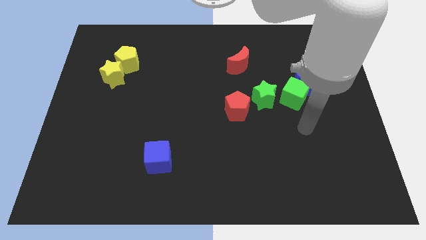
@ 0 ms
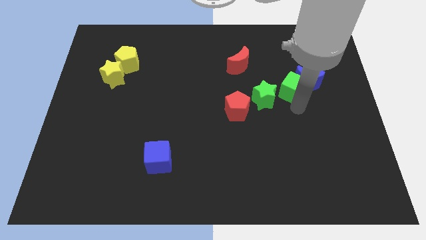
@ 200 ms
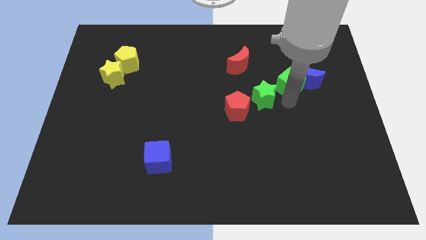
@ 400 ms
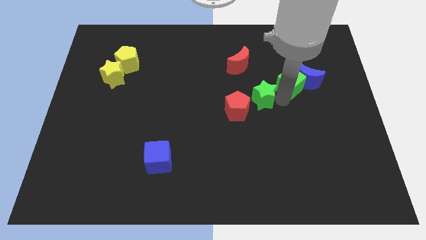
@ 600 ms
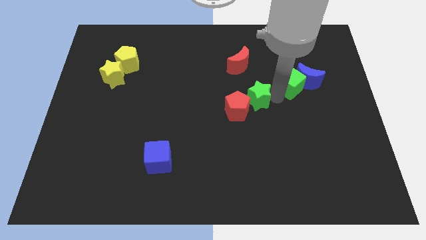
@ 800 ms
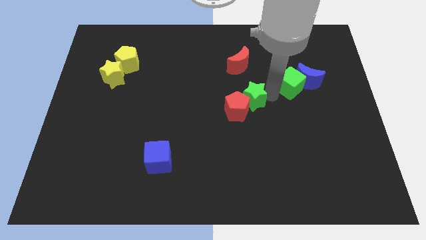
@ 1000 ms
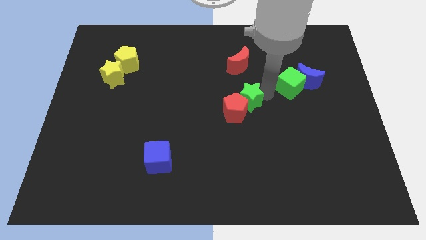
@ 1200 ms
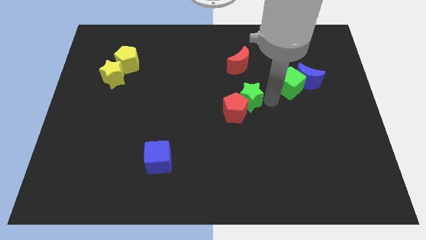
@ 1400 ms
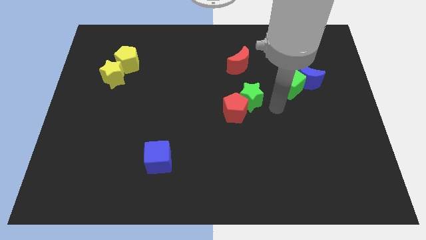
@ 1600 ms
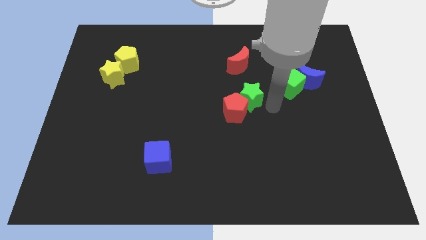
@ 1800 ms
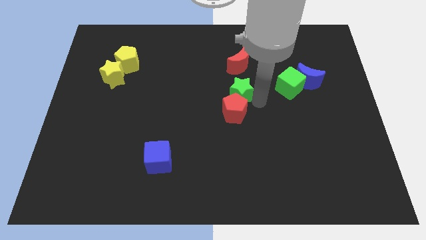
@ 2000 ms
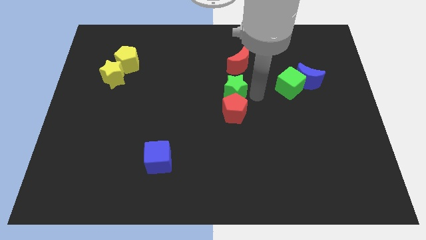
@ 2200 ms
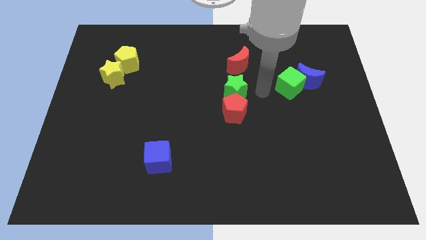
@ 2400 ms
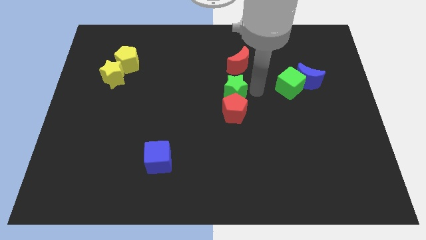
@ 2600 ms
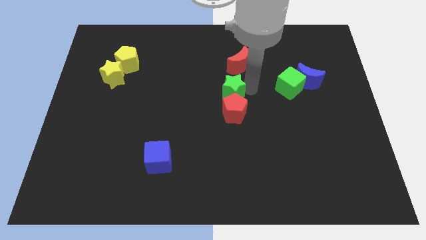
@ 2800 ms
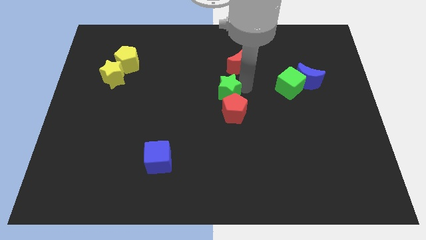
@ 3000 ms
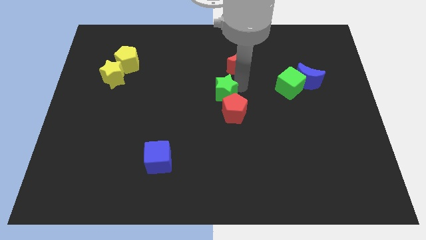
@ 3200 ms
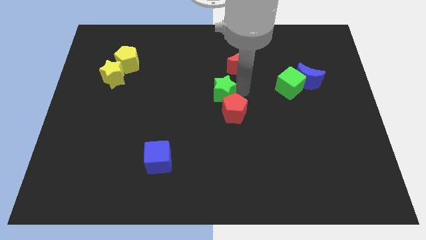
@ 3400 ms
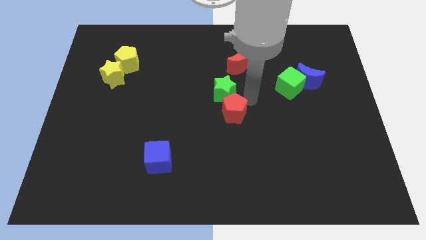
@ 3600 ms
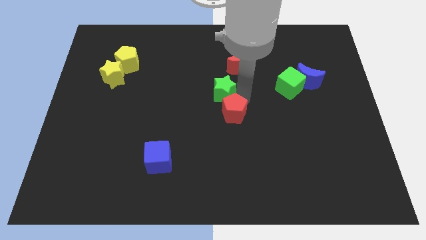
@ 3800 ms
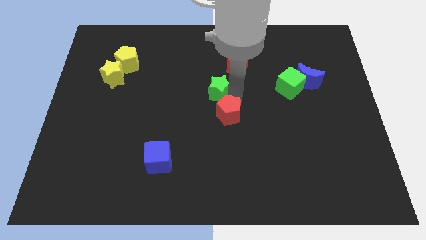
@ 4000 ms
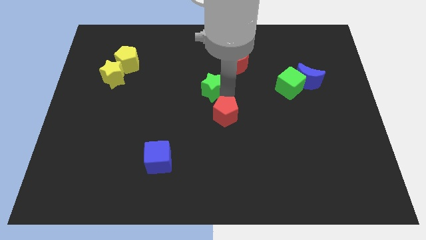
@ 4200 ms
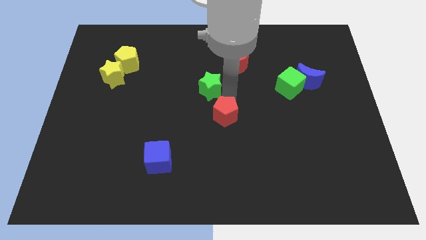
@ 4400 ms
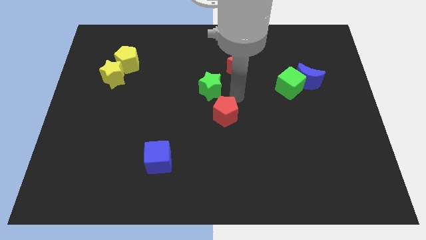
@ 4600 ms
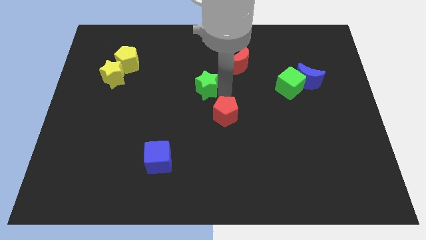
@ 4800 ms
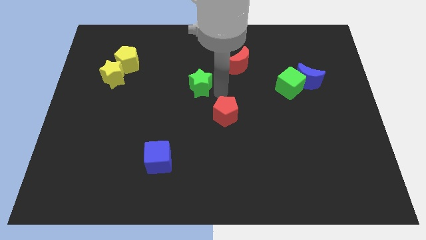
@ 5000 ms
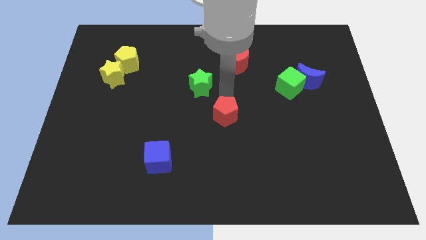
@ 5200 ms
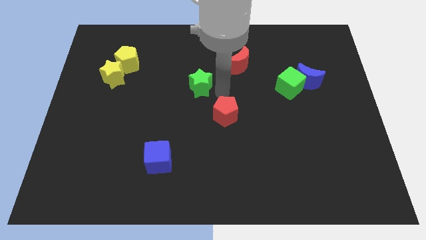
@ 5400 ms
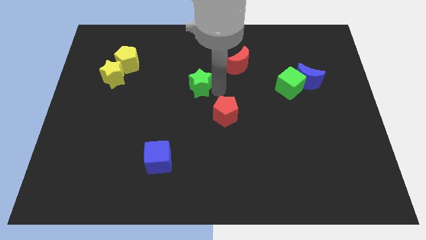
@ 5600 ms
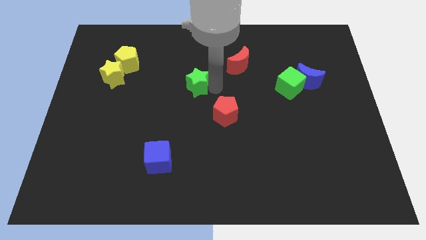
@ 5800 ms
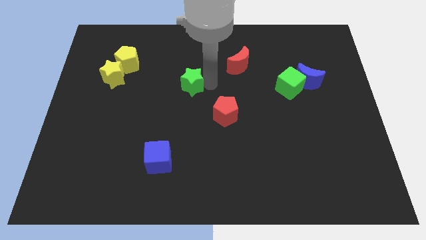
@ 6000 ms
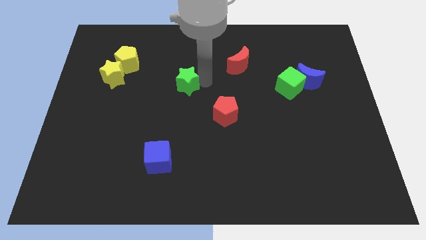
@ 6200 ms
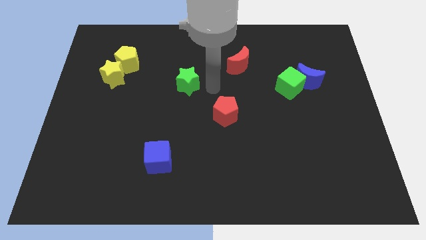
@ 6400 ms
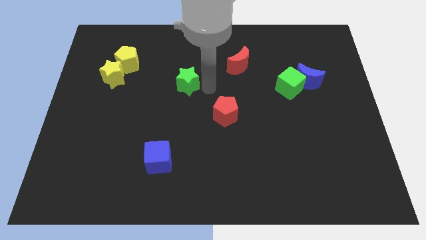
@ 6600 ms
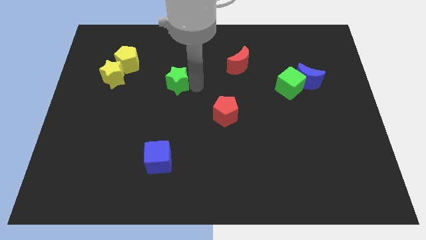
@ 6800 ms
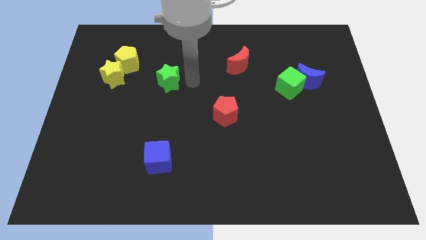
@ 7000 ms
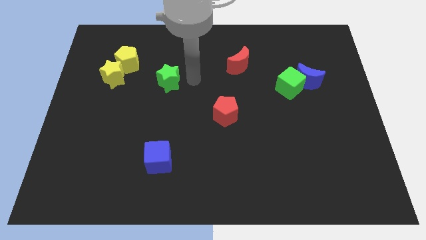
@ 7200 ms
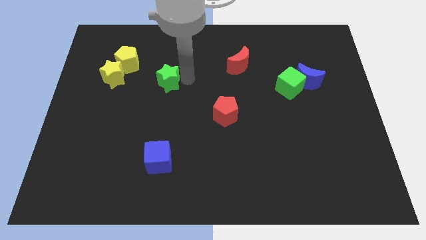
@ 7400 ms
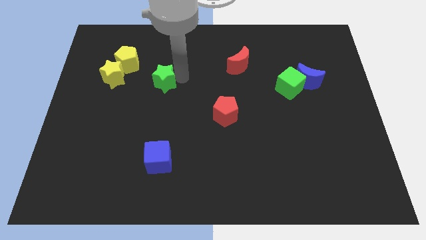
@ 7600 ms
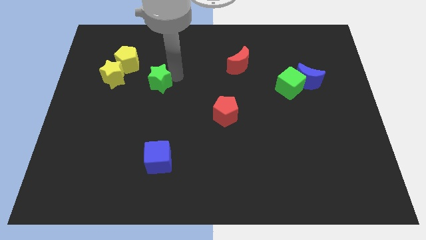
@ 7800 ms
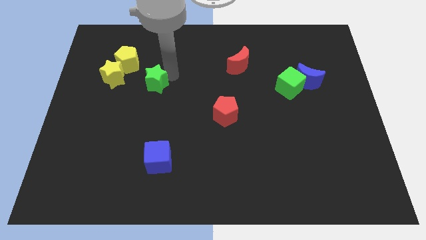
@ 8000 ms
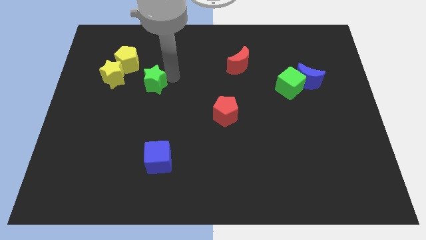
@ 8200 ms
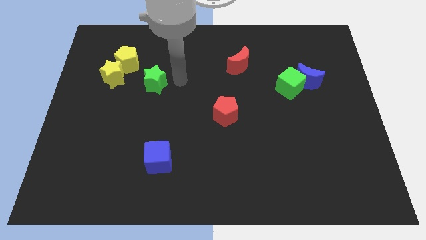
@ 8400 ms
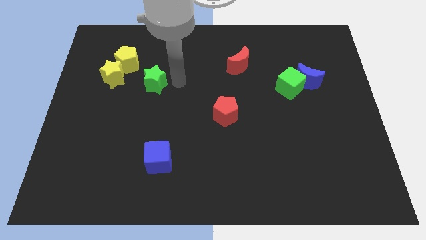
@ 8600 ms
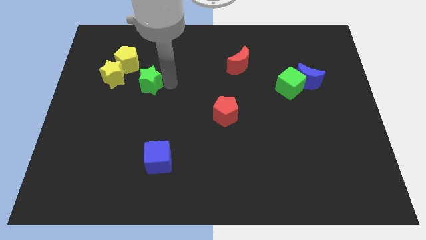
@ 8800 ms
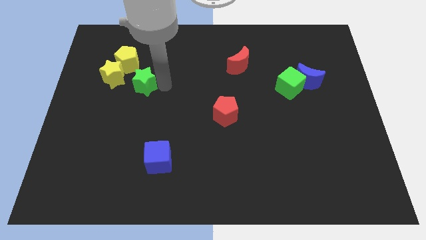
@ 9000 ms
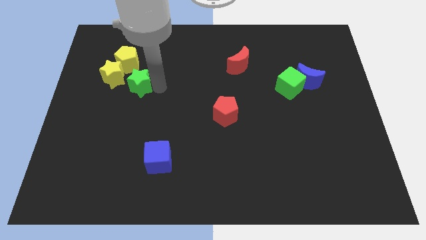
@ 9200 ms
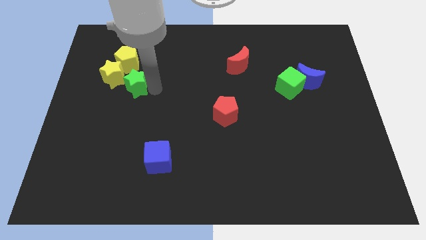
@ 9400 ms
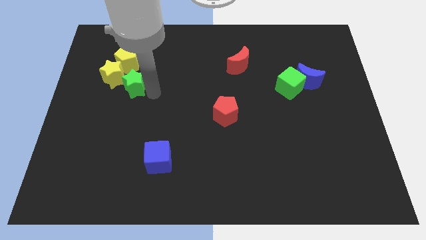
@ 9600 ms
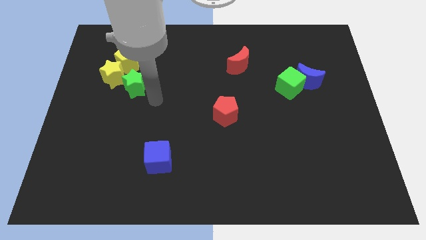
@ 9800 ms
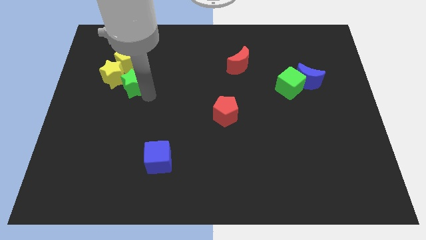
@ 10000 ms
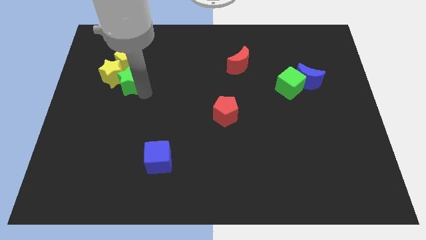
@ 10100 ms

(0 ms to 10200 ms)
move the green star to the yellow star

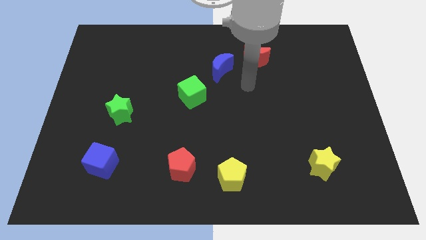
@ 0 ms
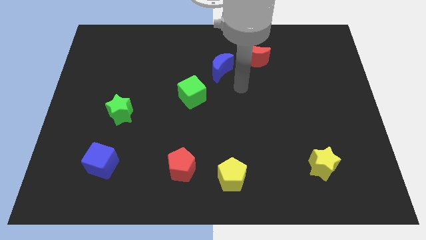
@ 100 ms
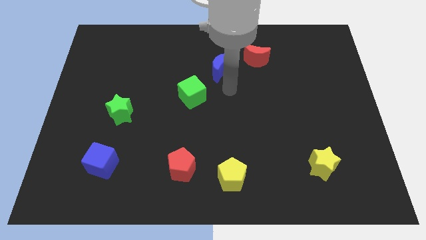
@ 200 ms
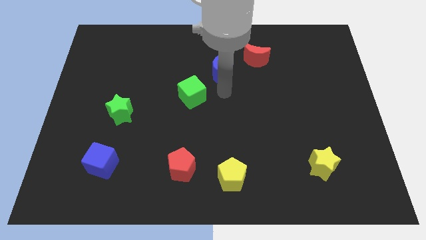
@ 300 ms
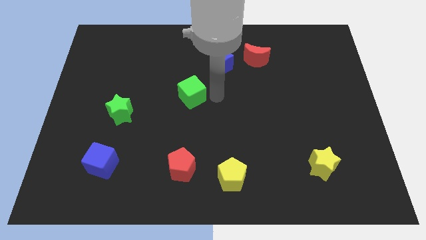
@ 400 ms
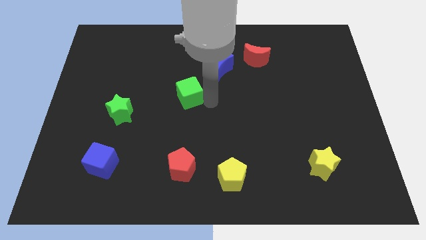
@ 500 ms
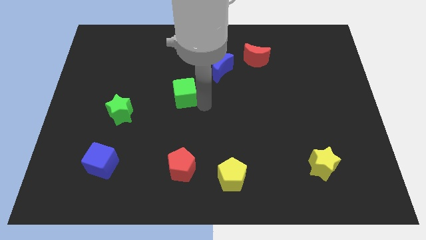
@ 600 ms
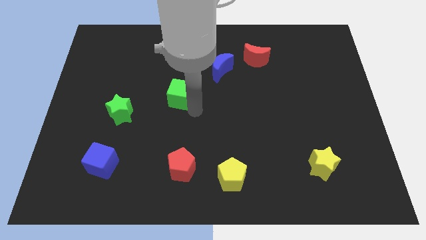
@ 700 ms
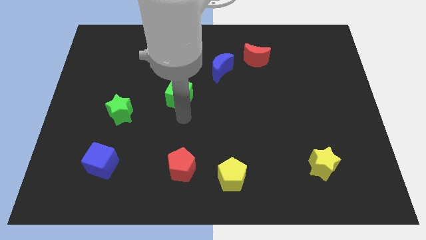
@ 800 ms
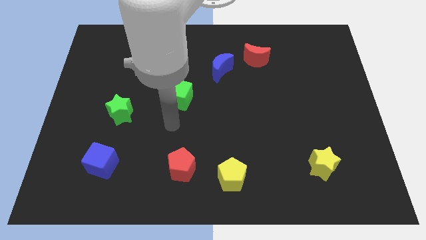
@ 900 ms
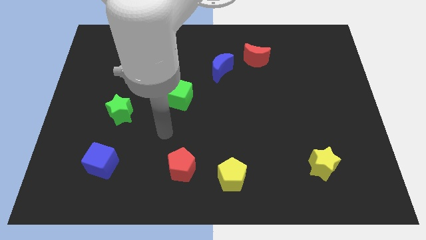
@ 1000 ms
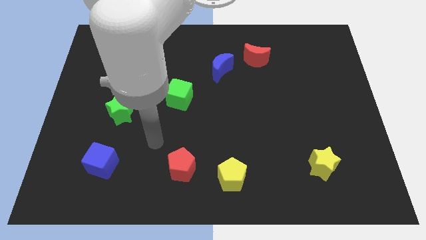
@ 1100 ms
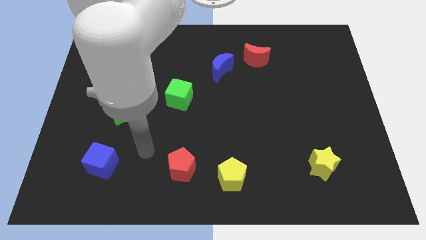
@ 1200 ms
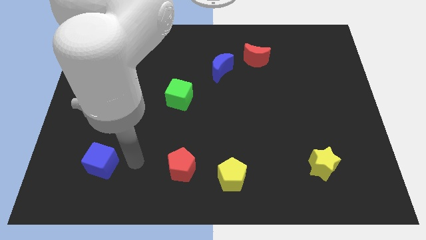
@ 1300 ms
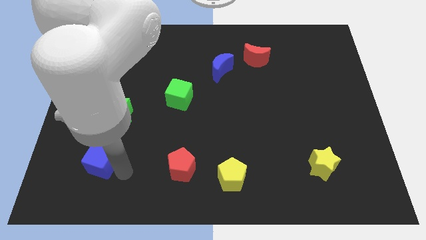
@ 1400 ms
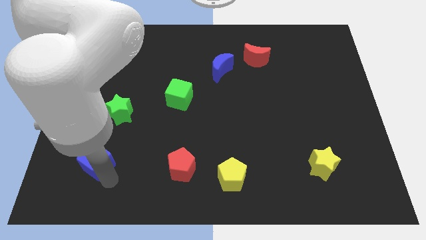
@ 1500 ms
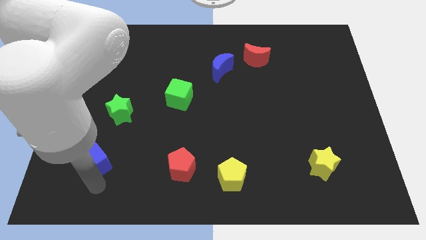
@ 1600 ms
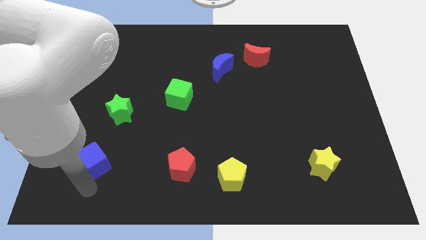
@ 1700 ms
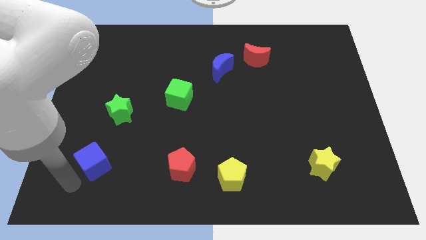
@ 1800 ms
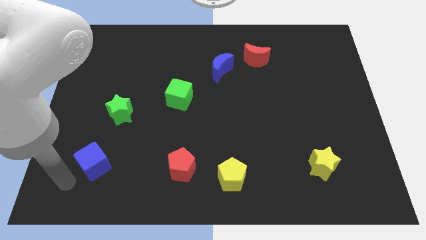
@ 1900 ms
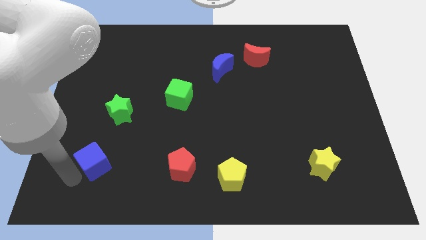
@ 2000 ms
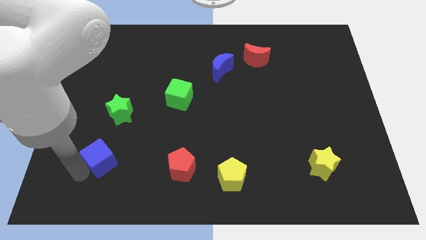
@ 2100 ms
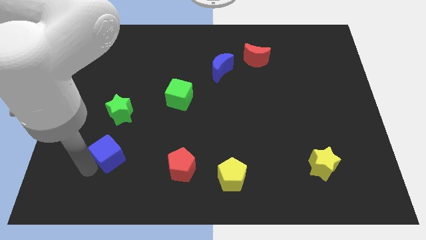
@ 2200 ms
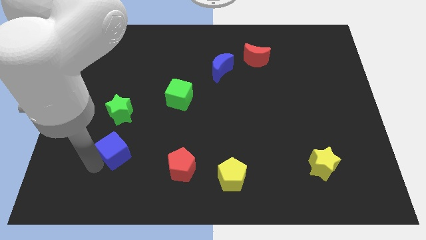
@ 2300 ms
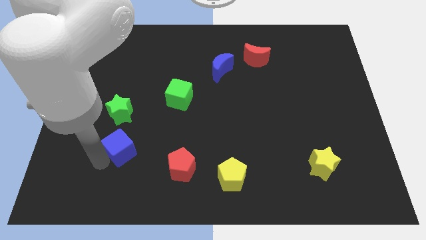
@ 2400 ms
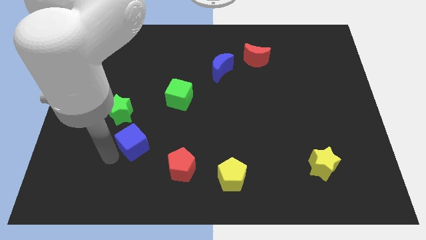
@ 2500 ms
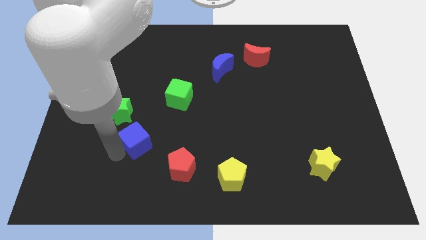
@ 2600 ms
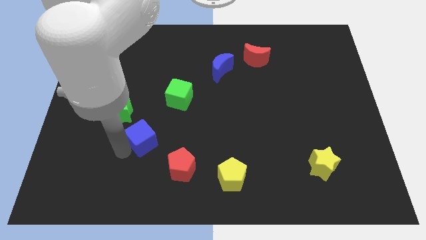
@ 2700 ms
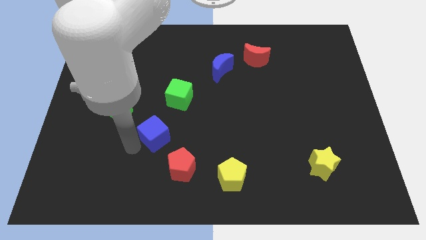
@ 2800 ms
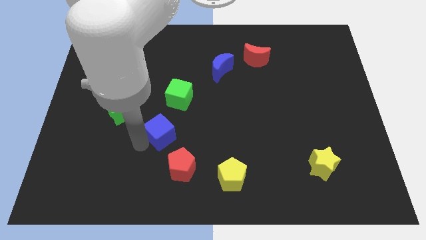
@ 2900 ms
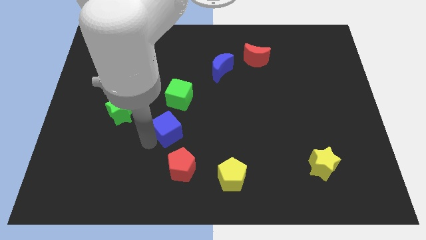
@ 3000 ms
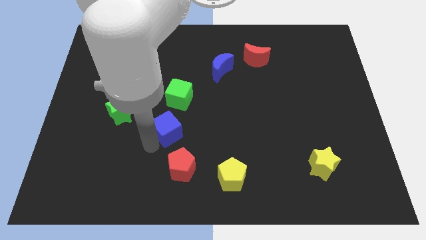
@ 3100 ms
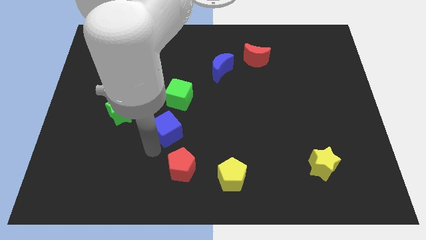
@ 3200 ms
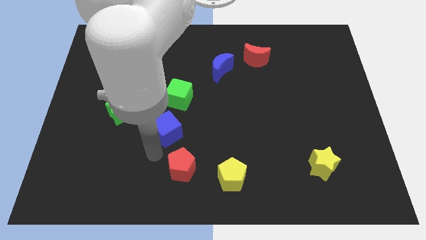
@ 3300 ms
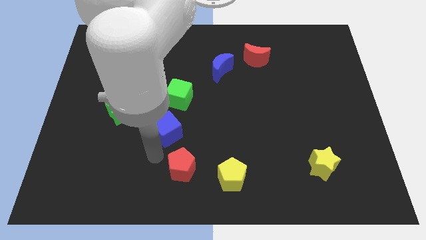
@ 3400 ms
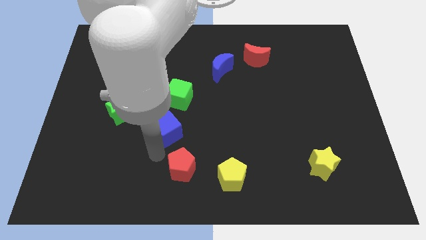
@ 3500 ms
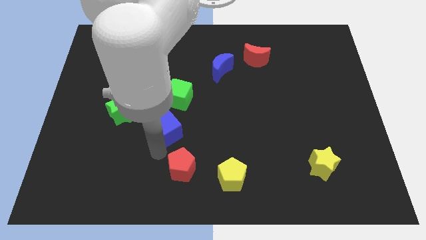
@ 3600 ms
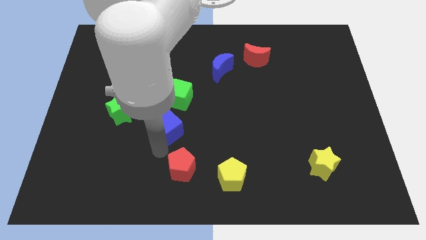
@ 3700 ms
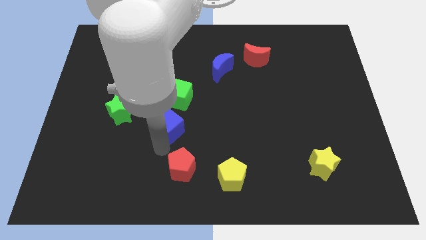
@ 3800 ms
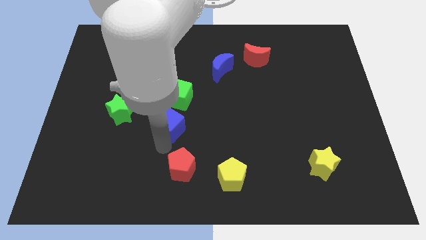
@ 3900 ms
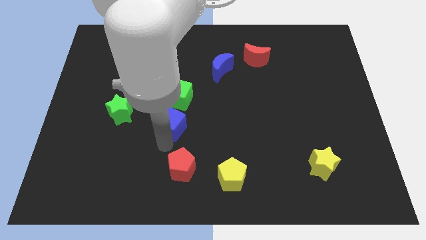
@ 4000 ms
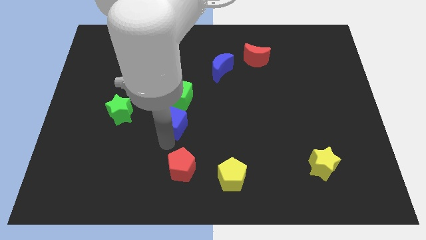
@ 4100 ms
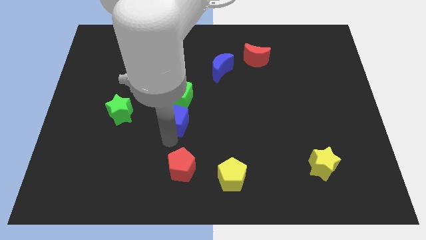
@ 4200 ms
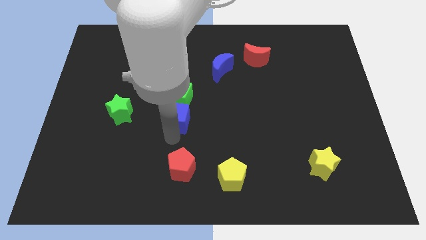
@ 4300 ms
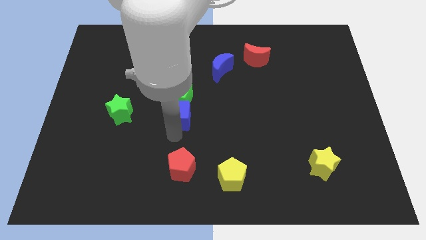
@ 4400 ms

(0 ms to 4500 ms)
slide the blue cube towards the green cube
